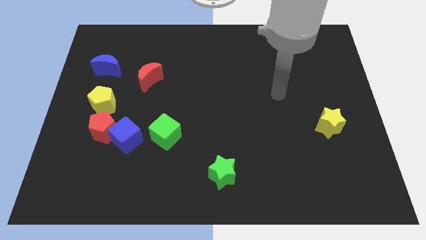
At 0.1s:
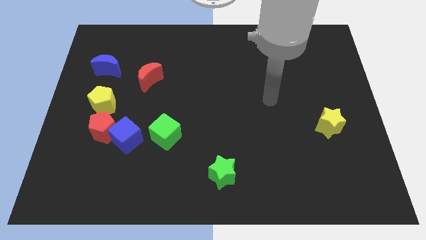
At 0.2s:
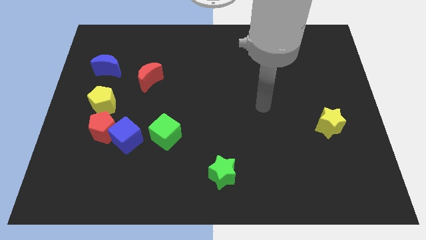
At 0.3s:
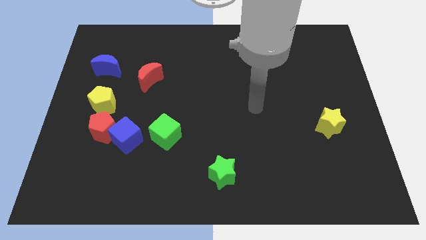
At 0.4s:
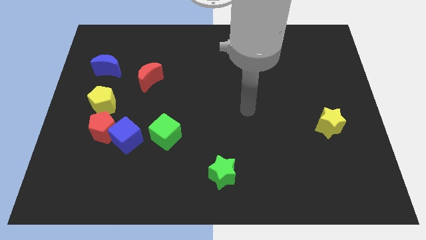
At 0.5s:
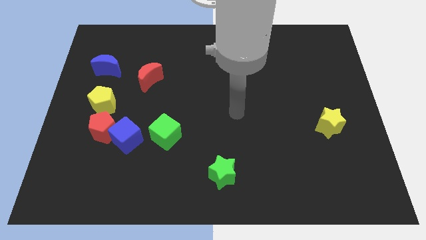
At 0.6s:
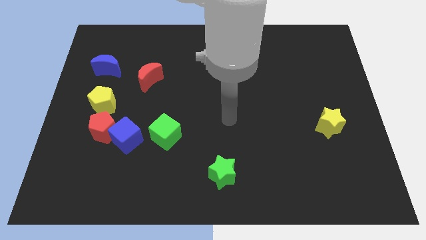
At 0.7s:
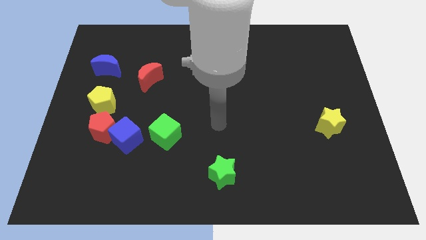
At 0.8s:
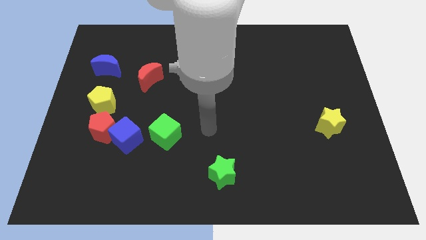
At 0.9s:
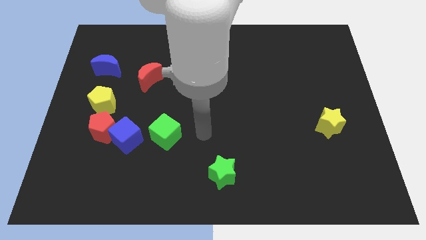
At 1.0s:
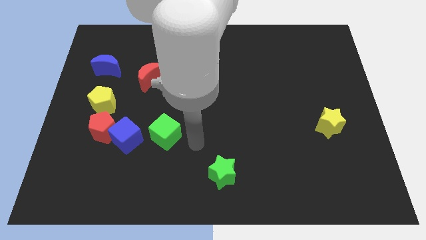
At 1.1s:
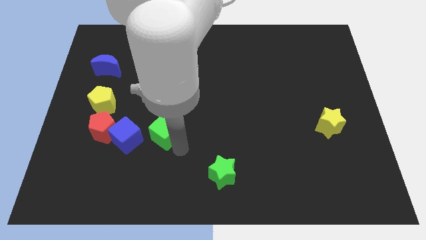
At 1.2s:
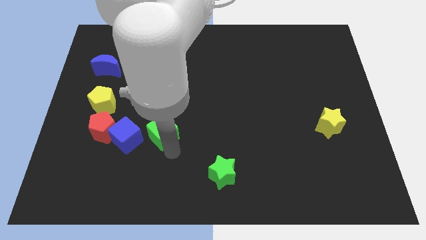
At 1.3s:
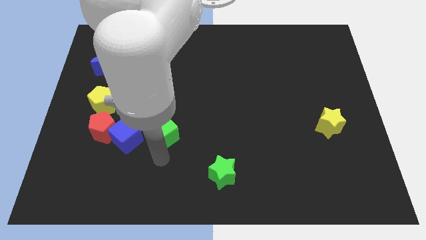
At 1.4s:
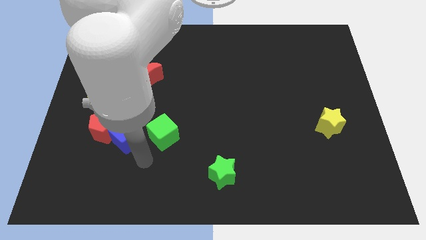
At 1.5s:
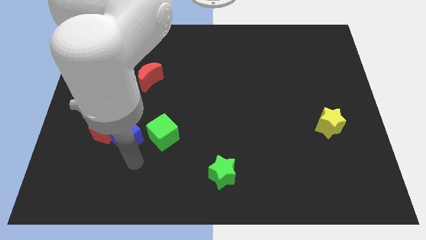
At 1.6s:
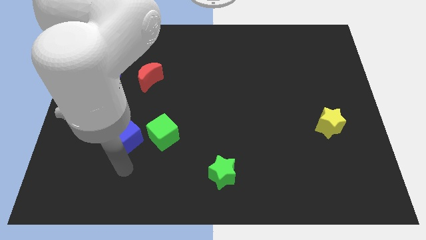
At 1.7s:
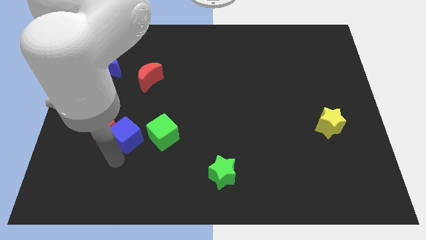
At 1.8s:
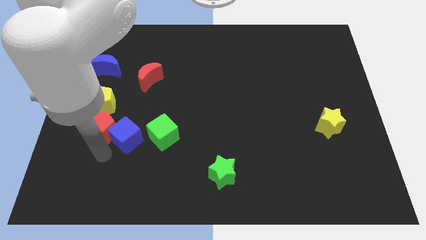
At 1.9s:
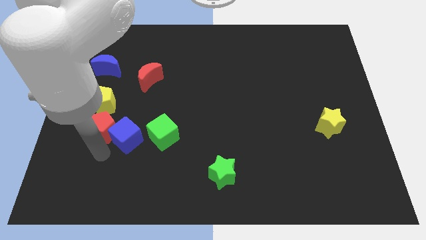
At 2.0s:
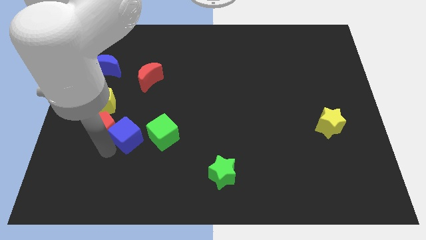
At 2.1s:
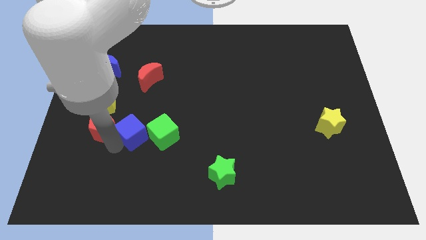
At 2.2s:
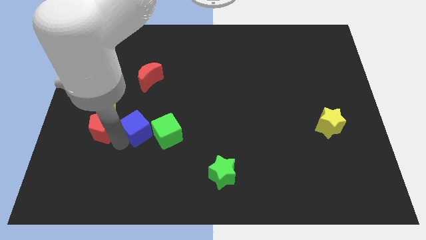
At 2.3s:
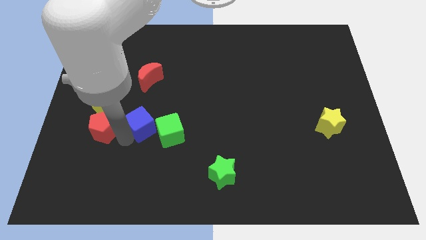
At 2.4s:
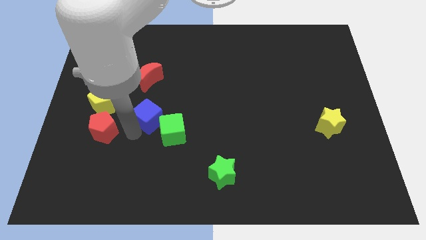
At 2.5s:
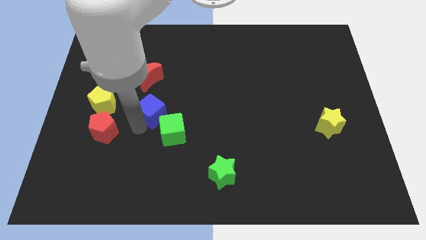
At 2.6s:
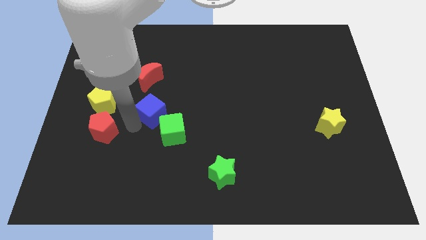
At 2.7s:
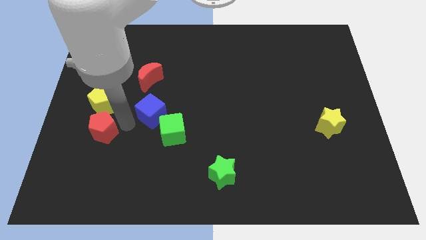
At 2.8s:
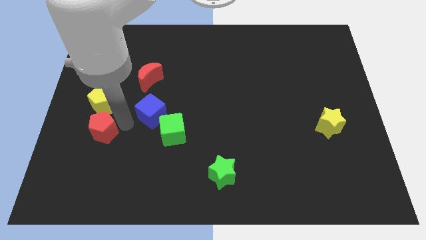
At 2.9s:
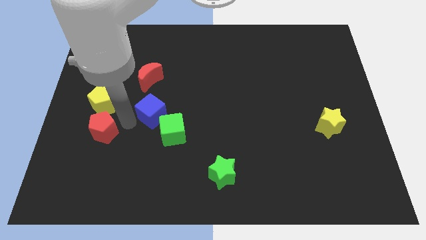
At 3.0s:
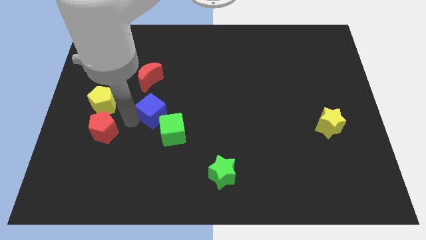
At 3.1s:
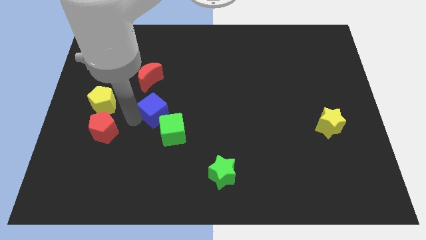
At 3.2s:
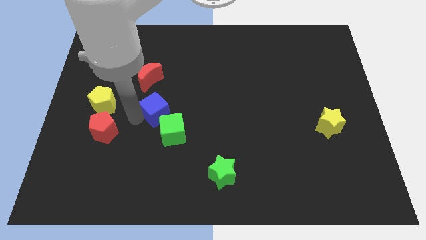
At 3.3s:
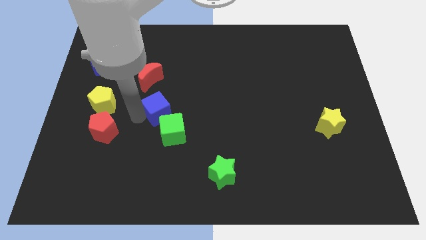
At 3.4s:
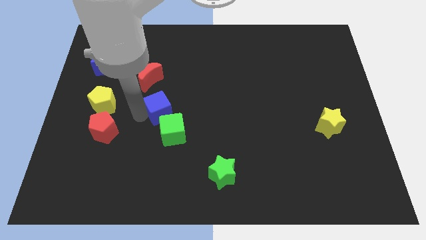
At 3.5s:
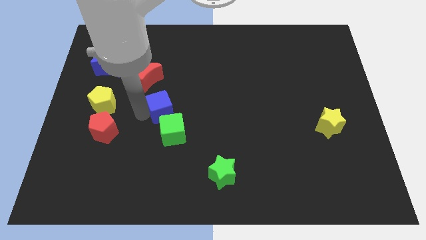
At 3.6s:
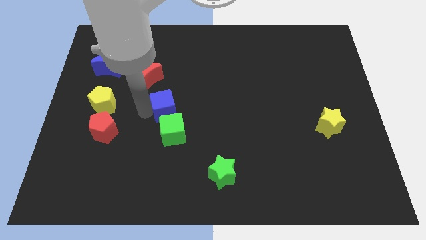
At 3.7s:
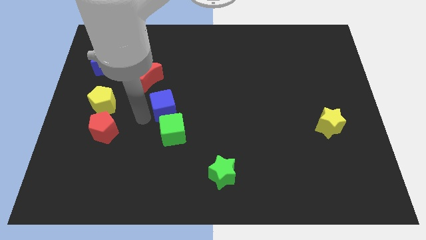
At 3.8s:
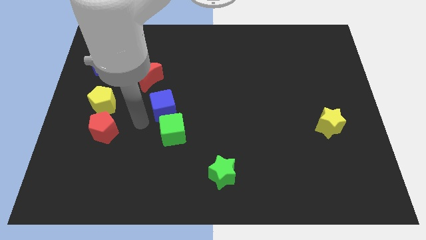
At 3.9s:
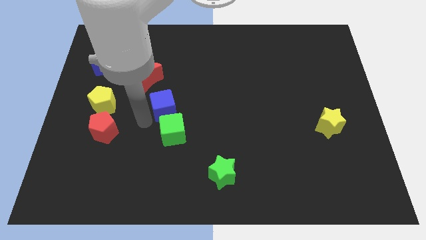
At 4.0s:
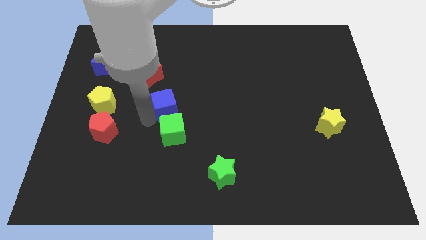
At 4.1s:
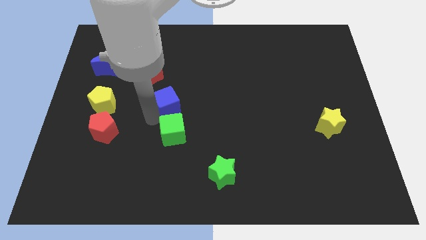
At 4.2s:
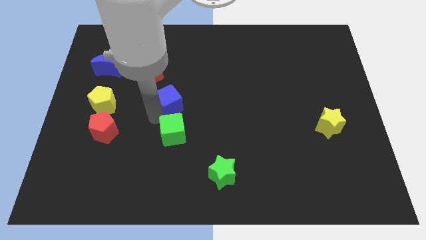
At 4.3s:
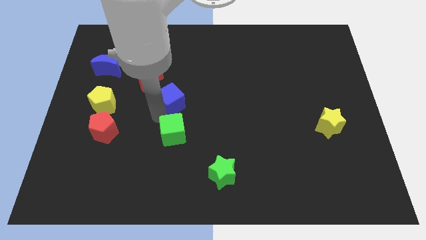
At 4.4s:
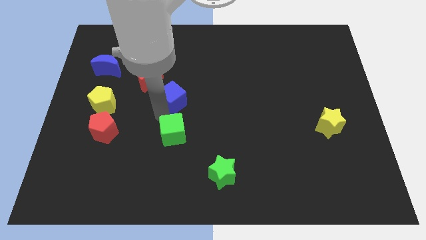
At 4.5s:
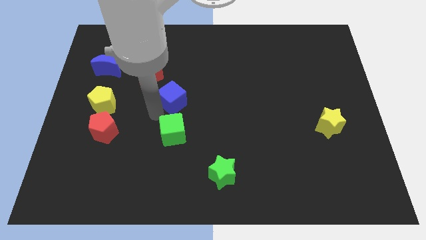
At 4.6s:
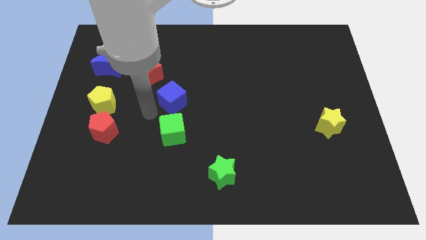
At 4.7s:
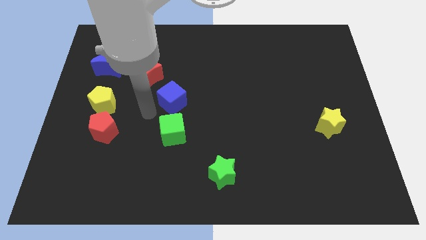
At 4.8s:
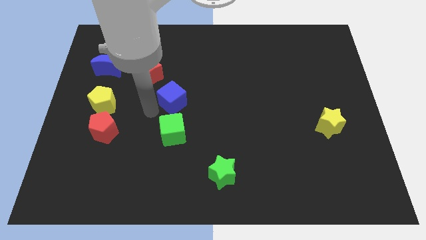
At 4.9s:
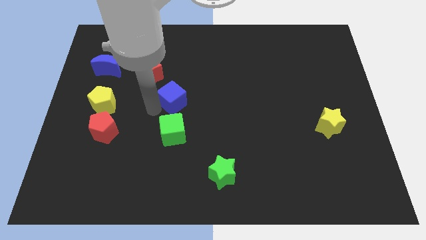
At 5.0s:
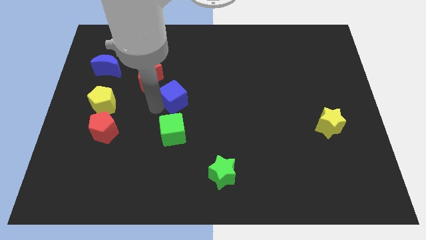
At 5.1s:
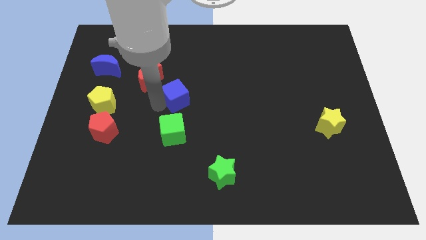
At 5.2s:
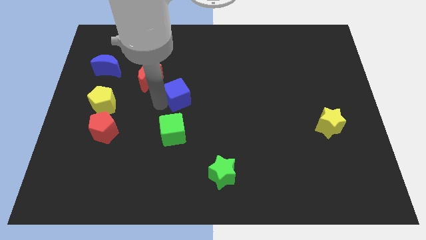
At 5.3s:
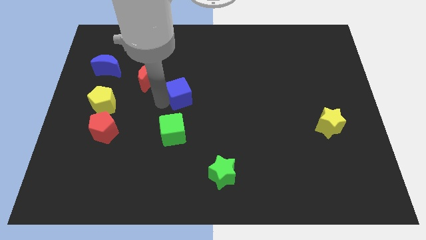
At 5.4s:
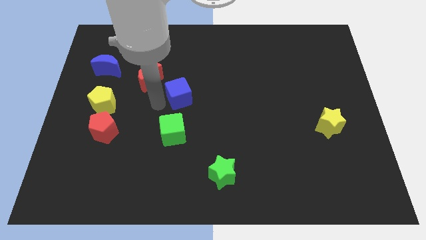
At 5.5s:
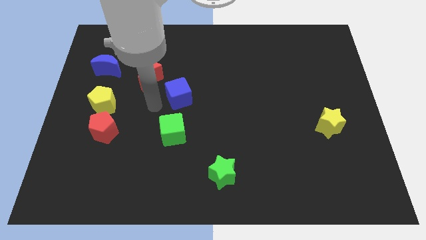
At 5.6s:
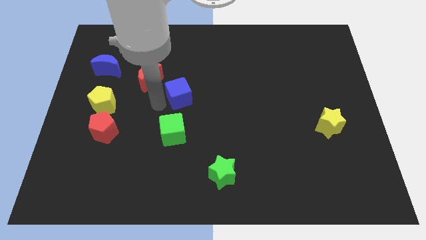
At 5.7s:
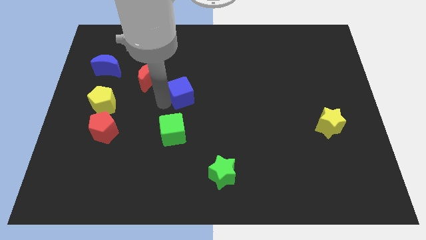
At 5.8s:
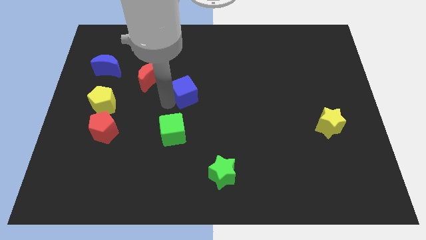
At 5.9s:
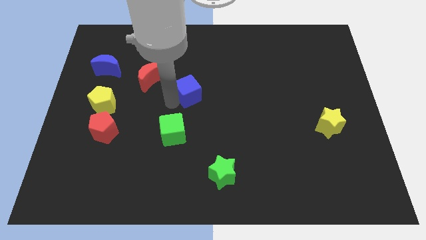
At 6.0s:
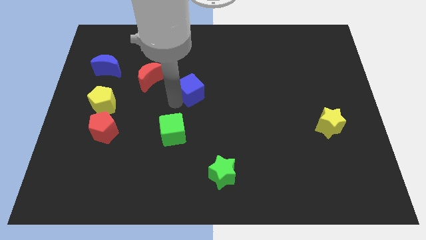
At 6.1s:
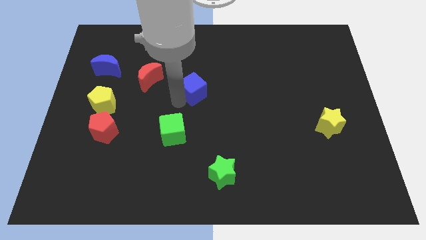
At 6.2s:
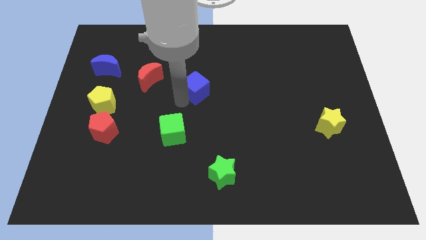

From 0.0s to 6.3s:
slide the blue cube up and right

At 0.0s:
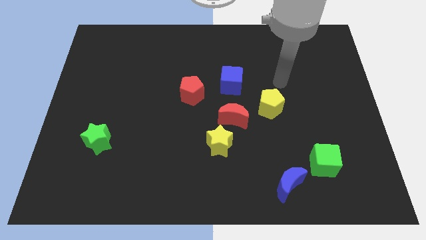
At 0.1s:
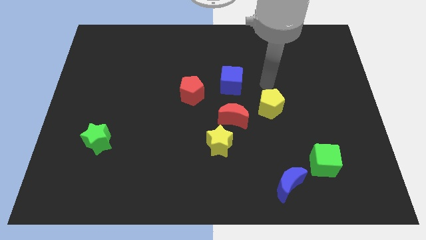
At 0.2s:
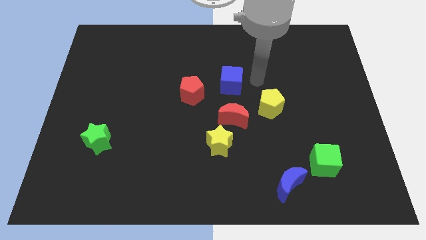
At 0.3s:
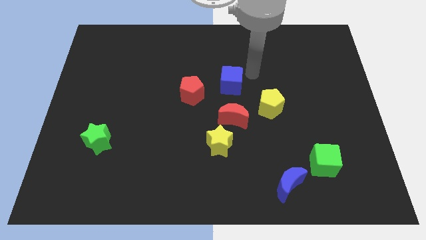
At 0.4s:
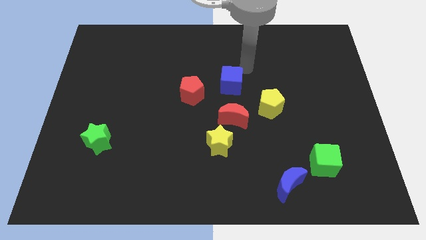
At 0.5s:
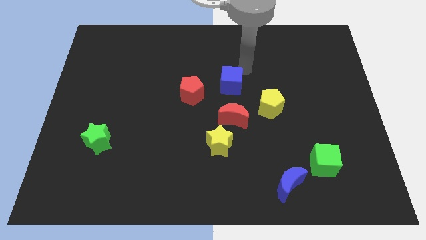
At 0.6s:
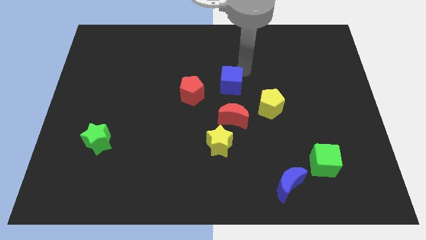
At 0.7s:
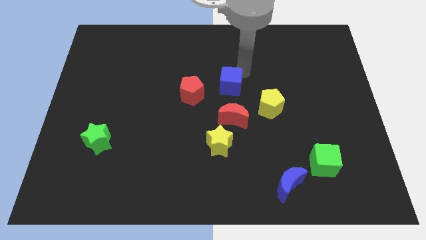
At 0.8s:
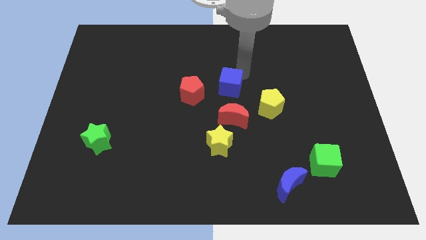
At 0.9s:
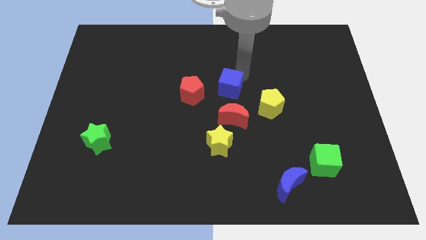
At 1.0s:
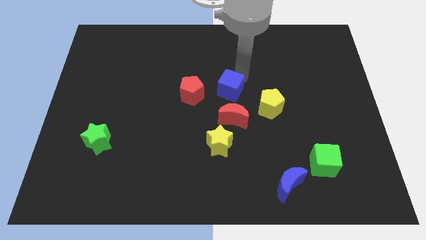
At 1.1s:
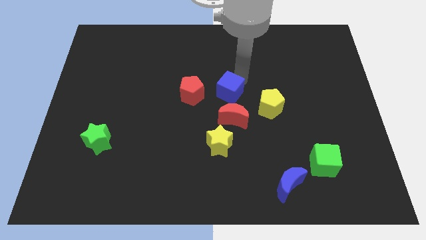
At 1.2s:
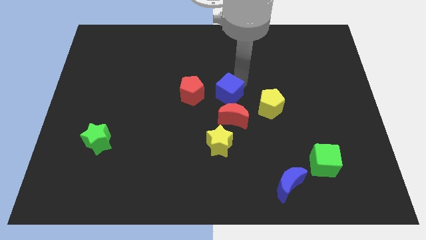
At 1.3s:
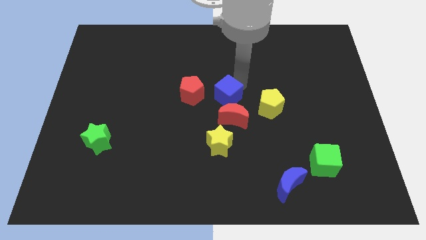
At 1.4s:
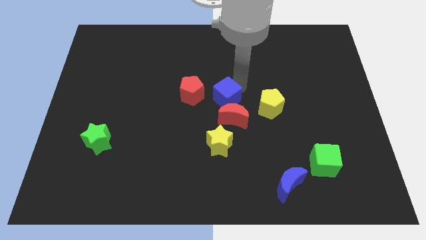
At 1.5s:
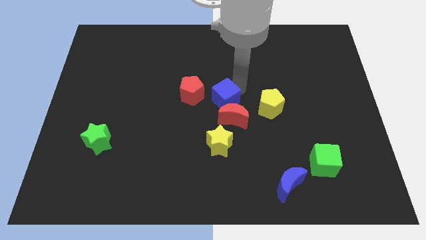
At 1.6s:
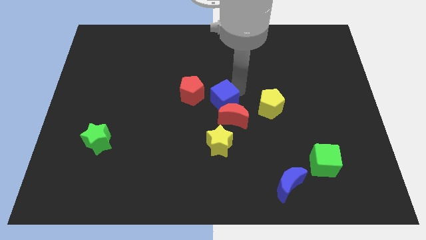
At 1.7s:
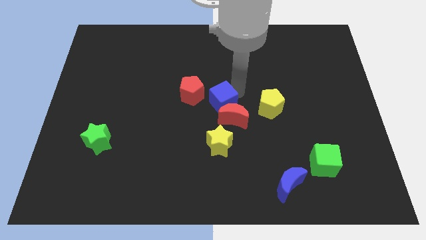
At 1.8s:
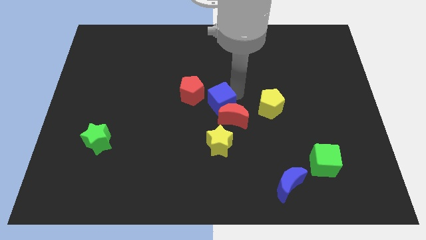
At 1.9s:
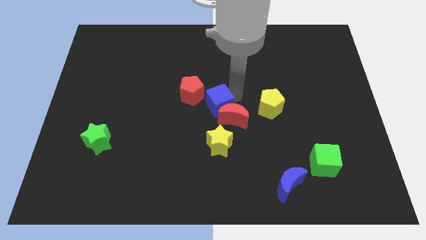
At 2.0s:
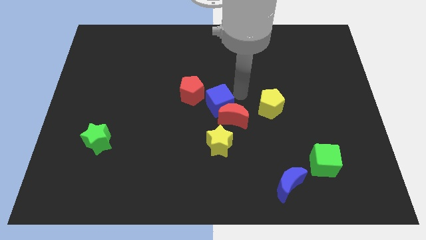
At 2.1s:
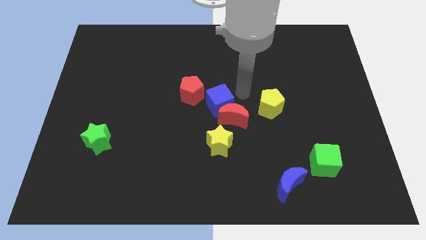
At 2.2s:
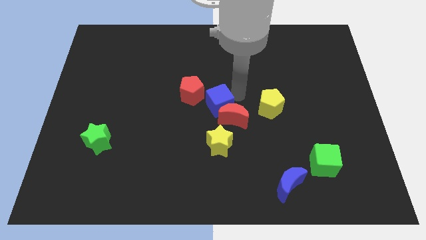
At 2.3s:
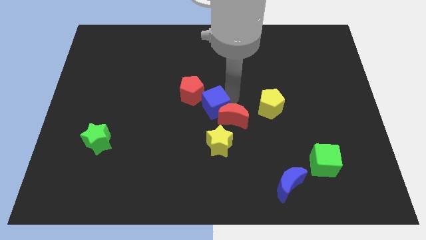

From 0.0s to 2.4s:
push the blue cube a little bit down and then left
